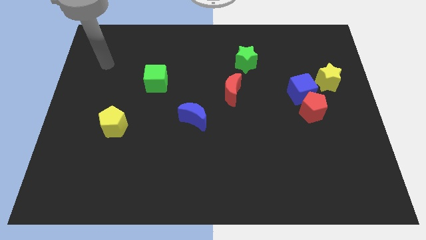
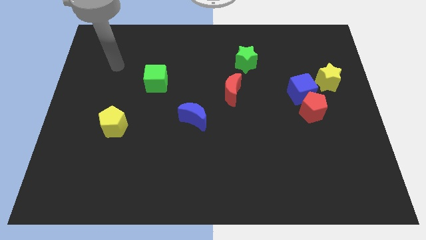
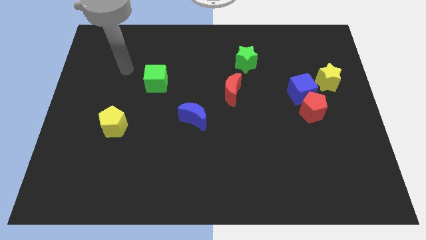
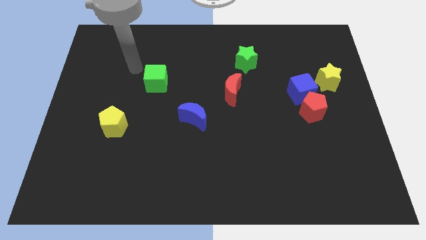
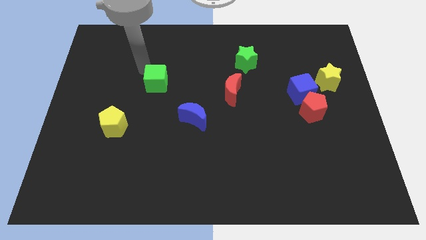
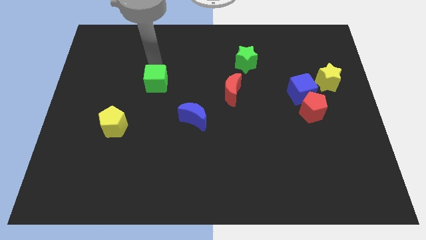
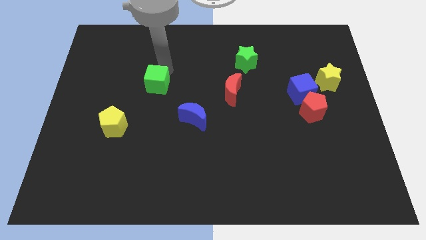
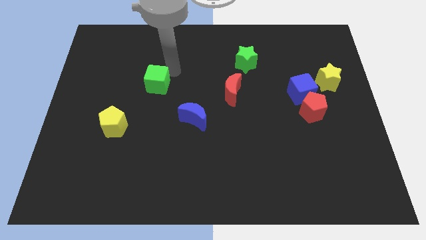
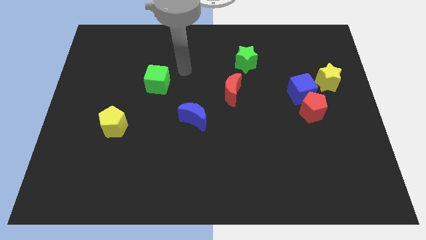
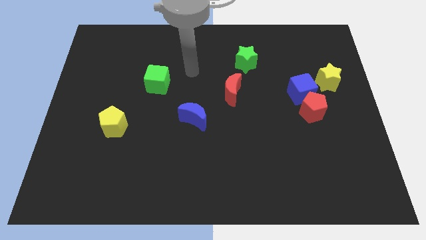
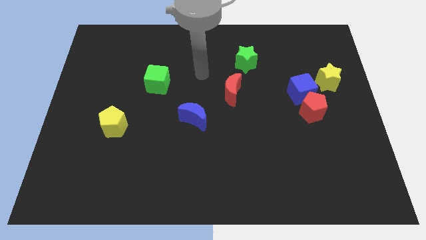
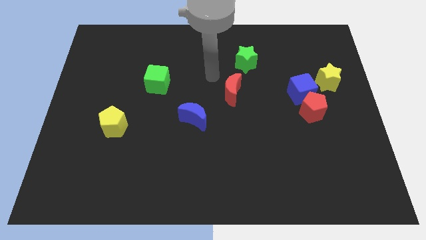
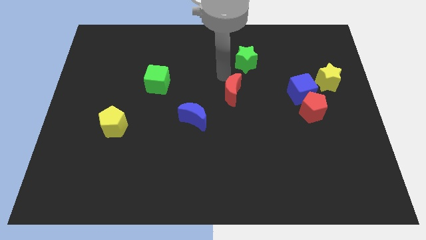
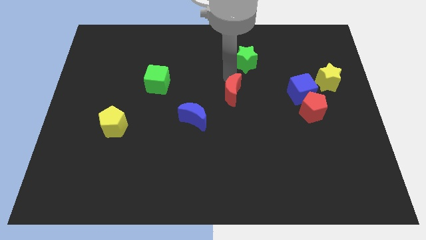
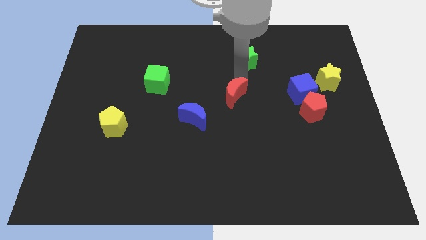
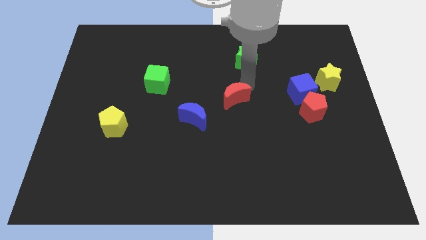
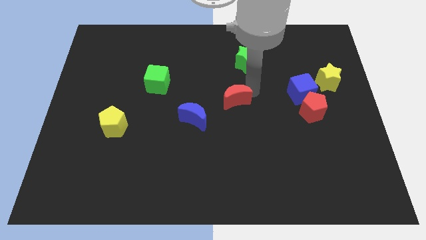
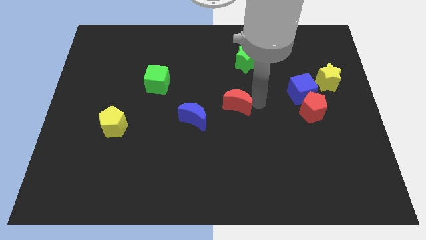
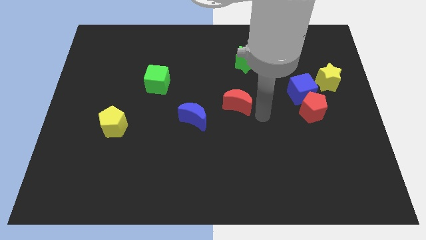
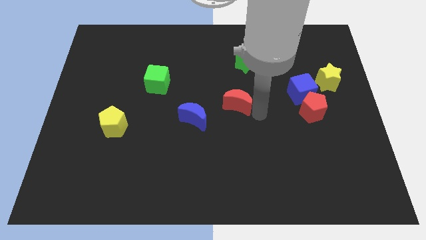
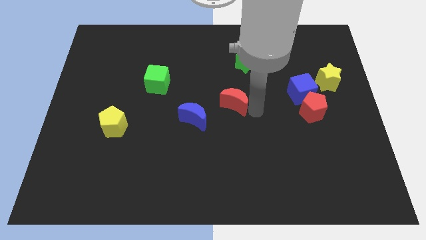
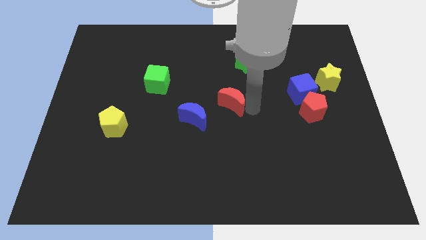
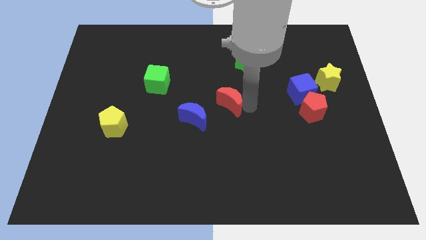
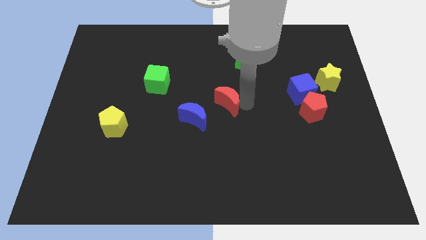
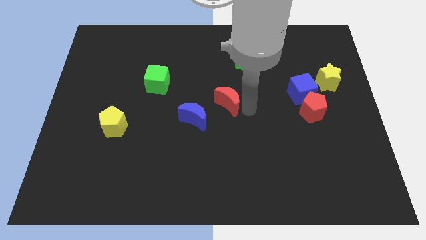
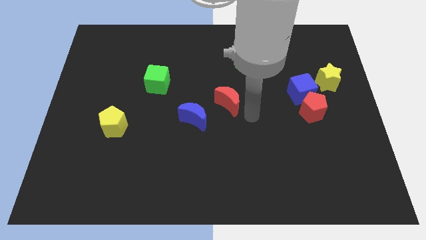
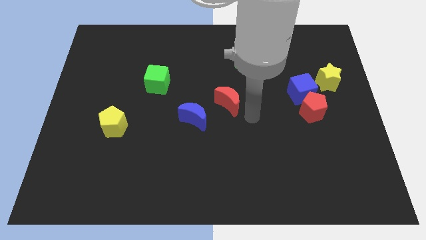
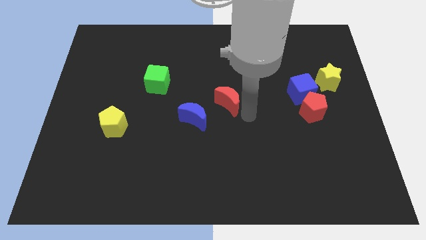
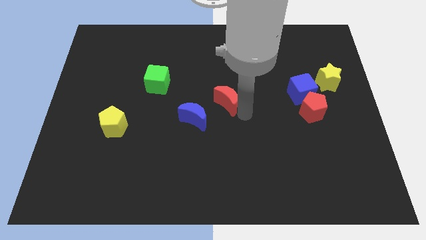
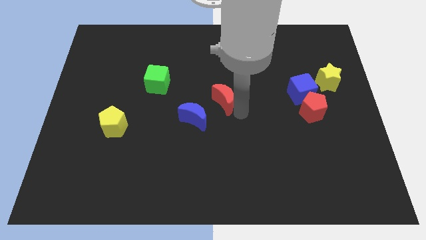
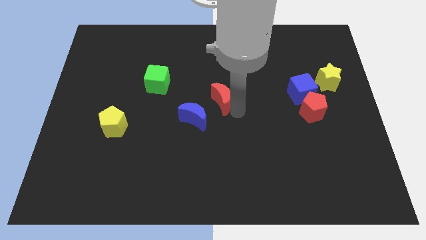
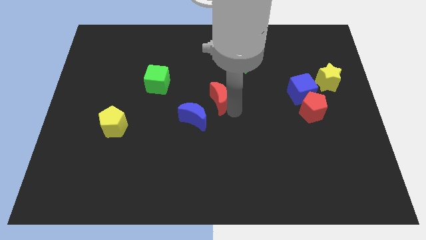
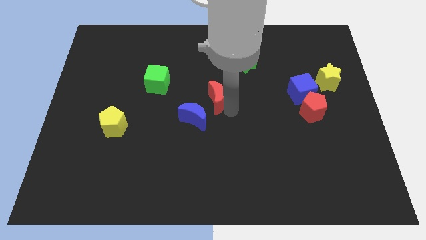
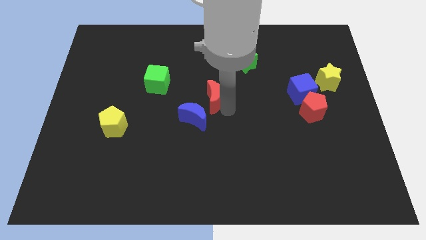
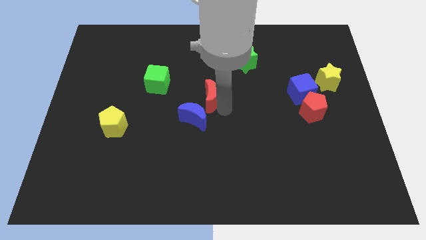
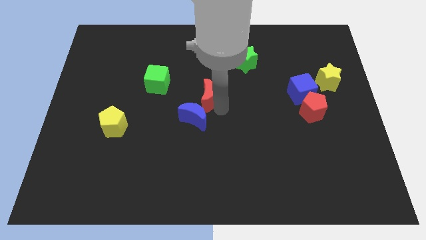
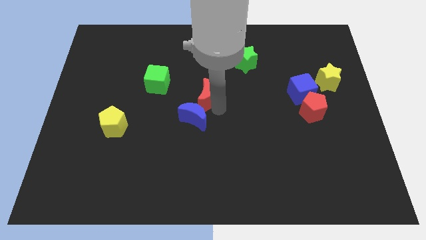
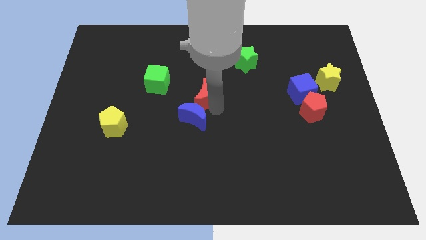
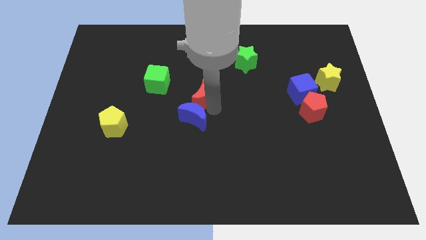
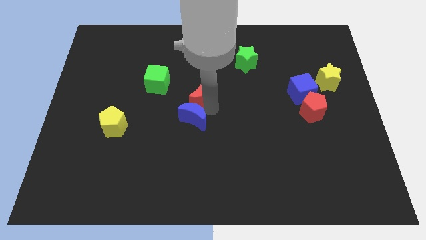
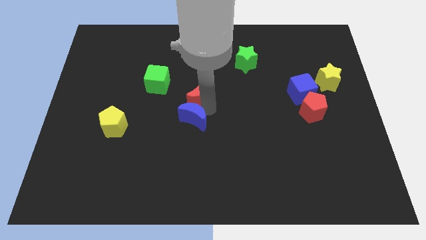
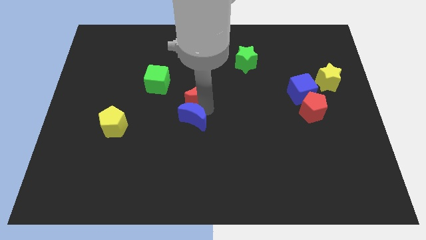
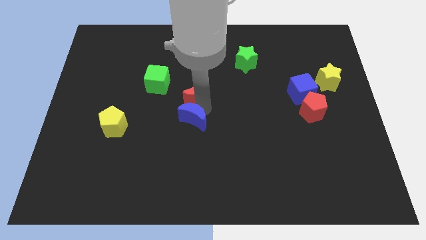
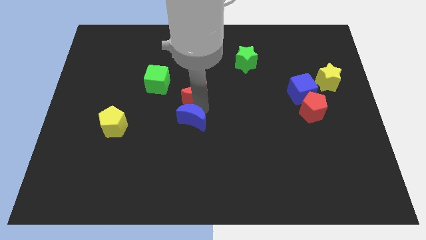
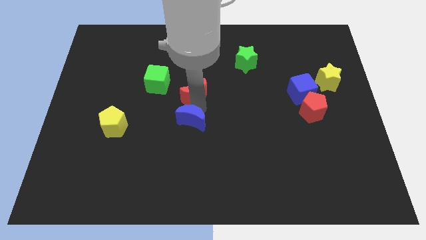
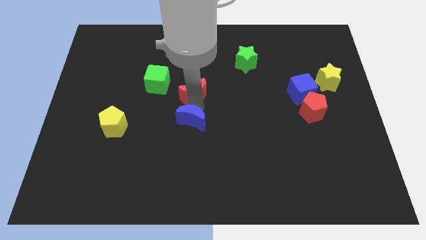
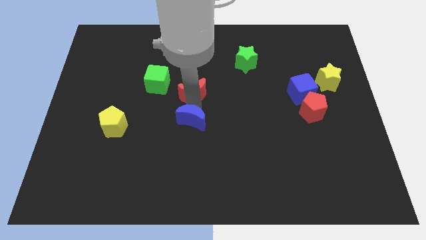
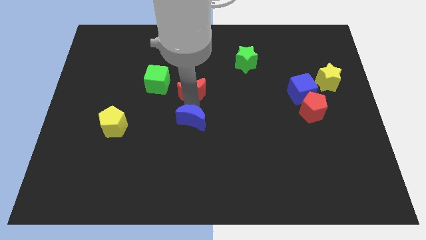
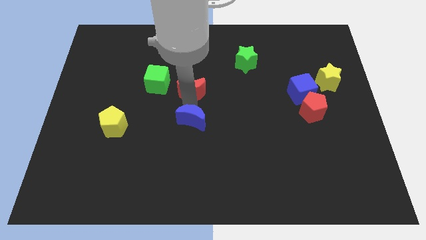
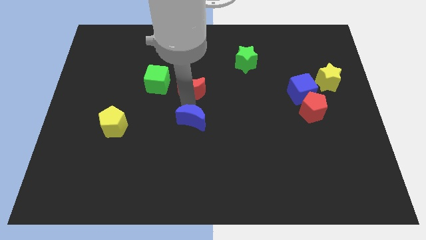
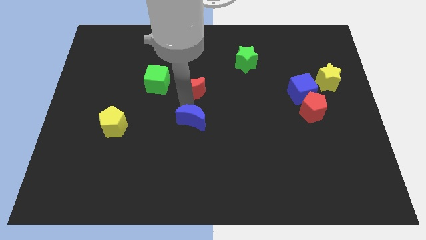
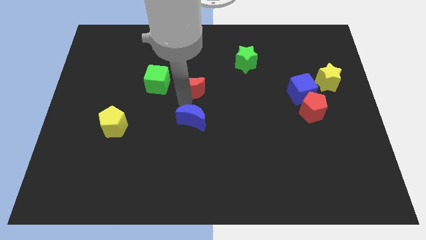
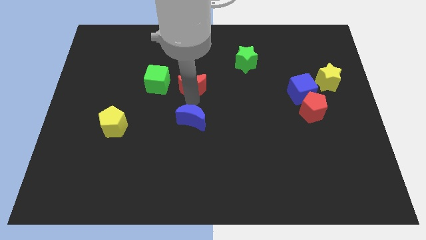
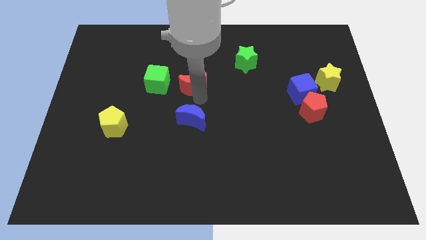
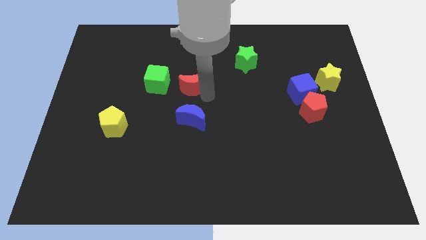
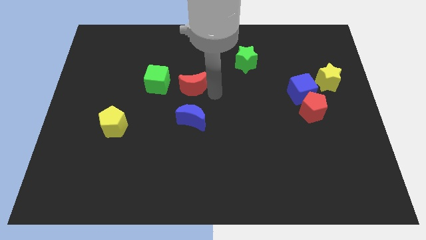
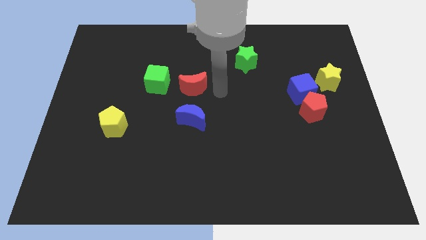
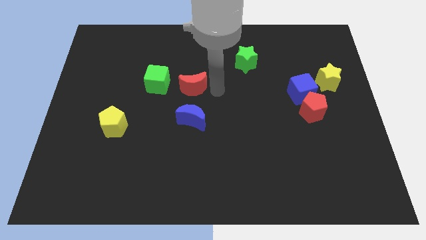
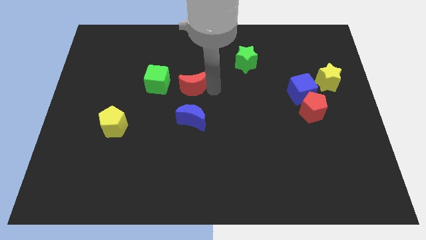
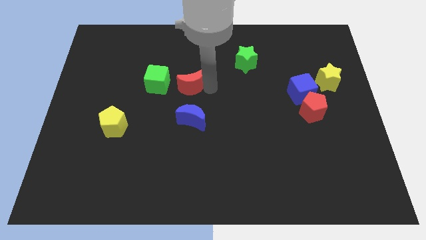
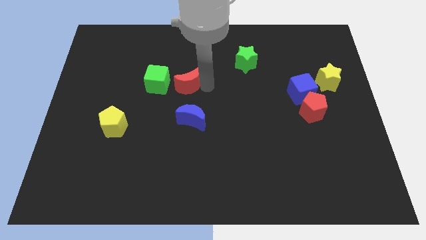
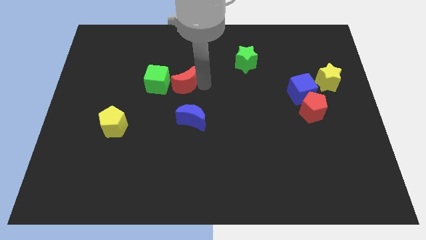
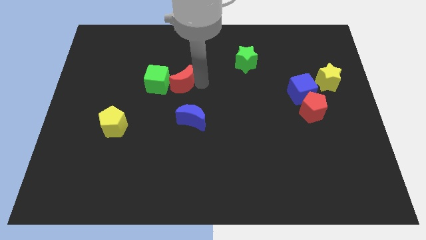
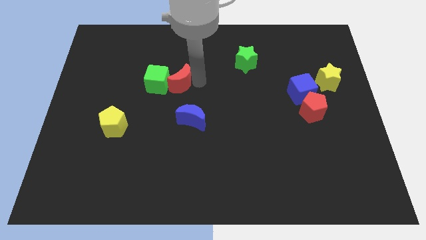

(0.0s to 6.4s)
push the red moon to the green cube
